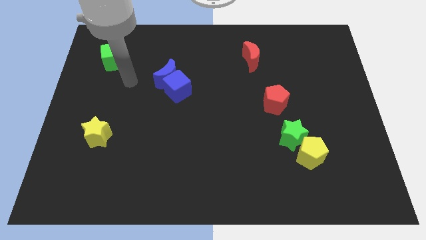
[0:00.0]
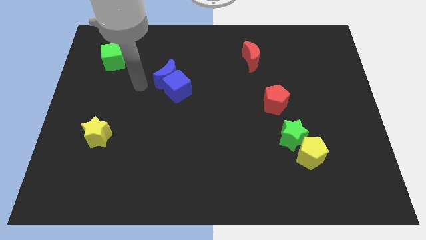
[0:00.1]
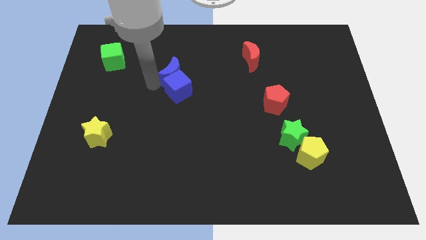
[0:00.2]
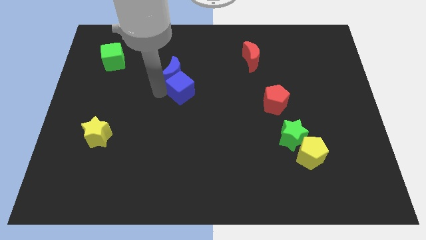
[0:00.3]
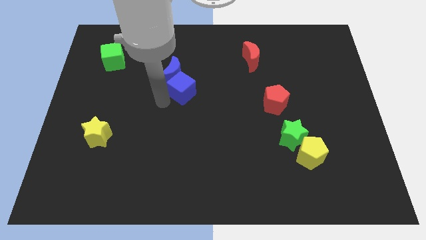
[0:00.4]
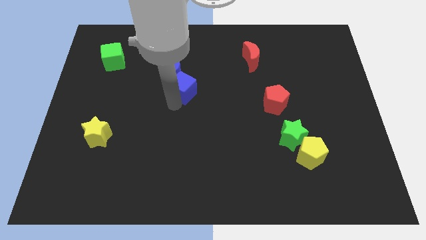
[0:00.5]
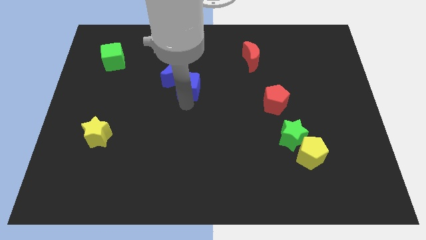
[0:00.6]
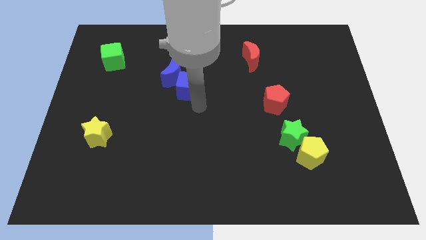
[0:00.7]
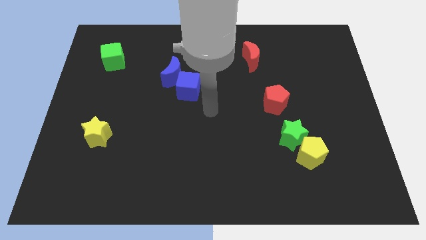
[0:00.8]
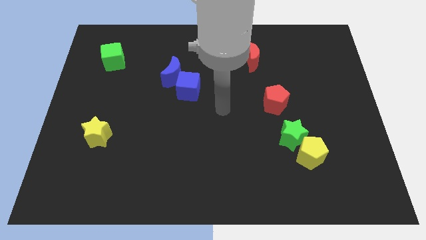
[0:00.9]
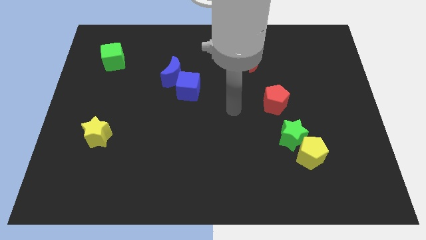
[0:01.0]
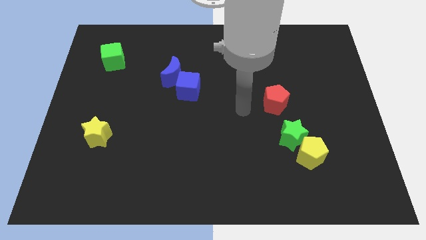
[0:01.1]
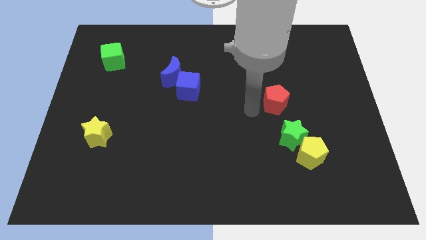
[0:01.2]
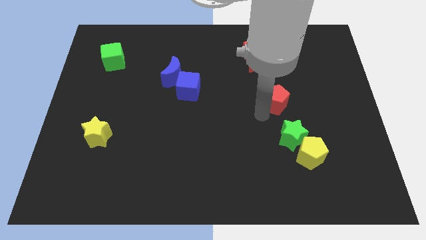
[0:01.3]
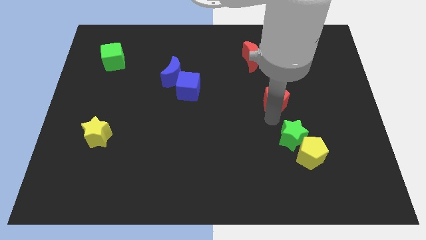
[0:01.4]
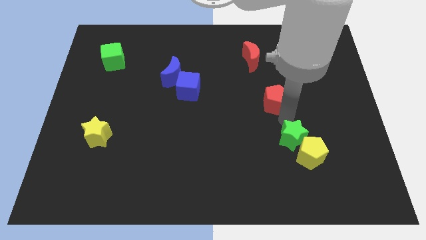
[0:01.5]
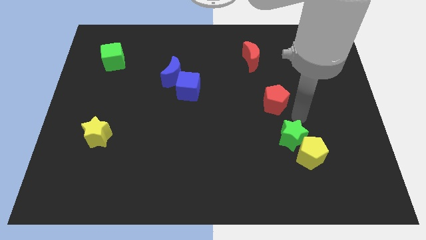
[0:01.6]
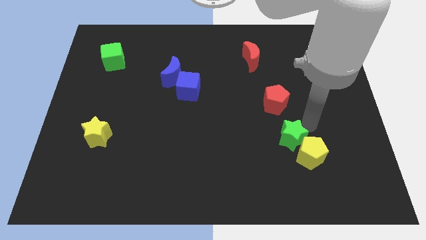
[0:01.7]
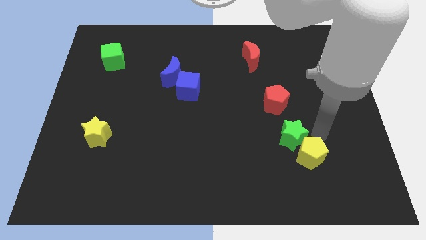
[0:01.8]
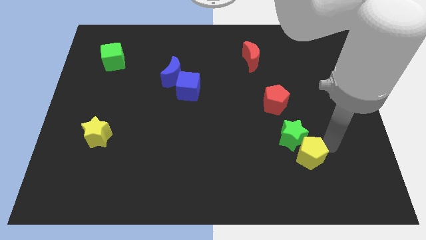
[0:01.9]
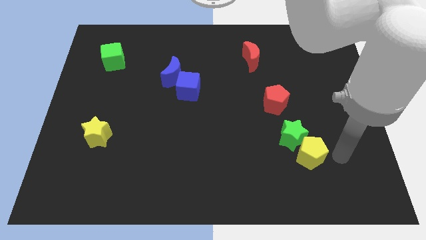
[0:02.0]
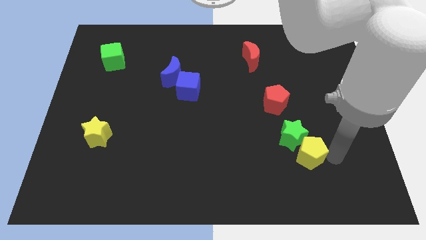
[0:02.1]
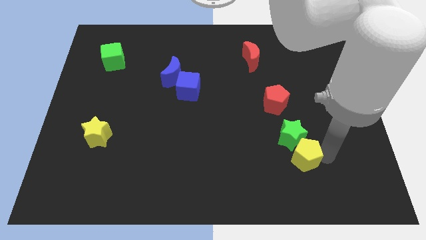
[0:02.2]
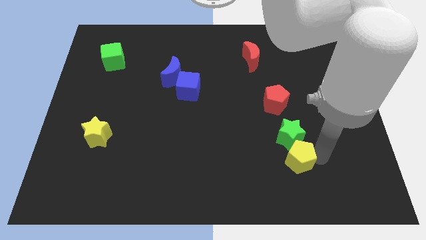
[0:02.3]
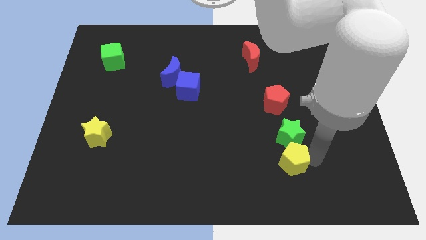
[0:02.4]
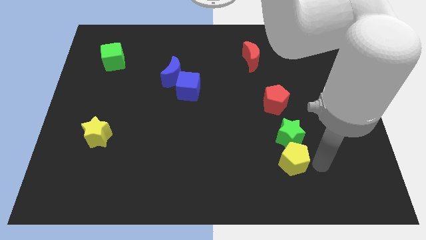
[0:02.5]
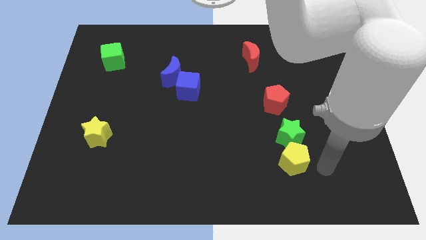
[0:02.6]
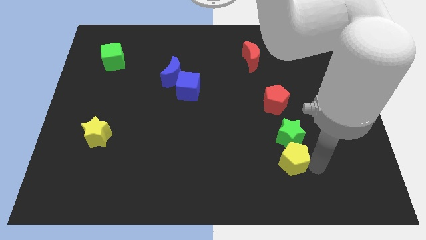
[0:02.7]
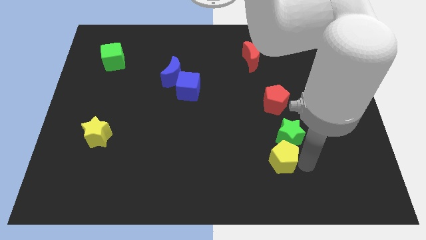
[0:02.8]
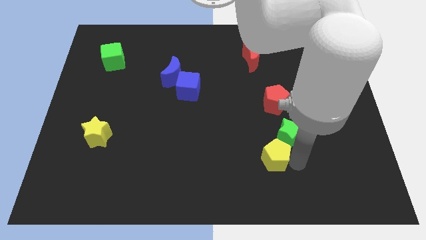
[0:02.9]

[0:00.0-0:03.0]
move the yellow pentagon to the left a little bit

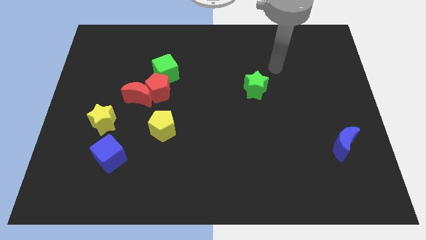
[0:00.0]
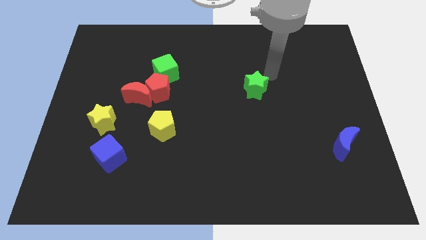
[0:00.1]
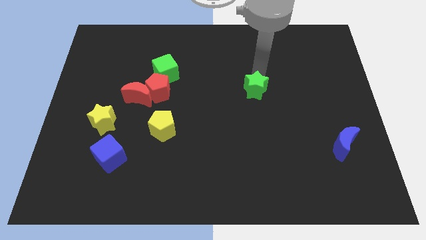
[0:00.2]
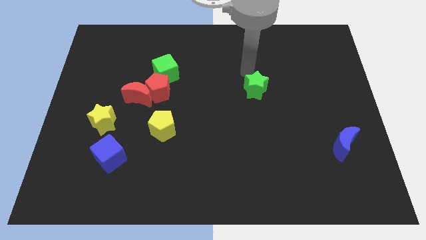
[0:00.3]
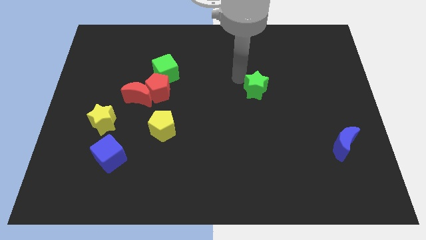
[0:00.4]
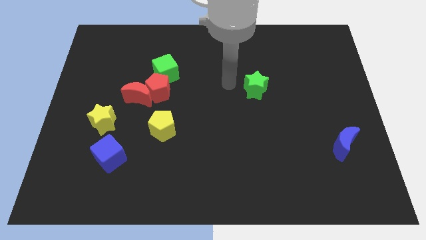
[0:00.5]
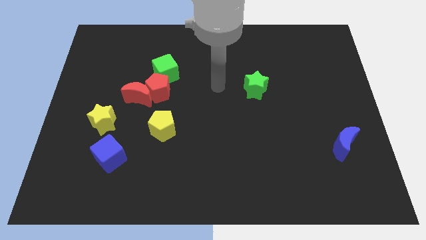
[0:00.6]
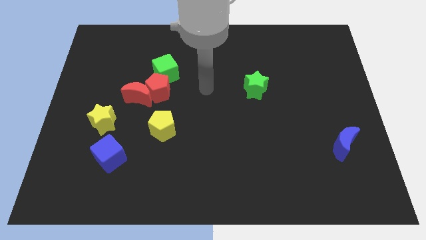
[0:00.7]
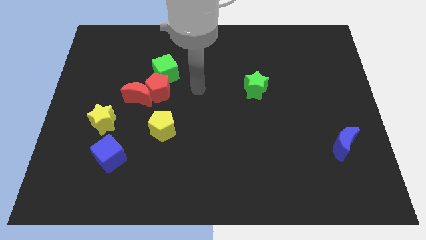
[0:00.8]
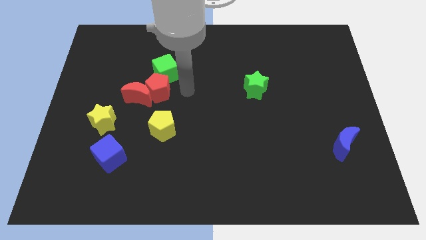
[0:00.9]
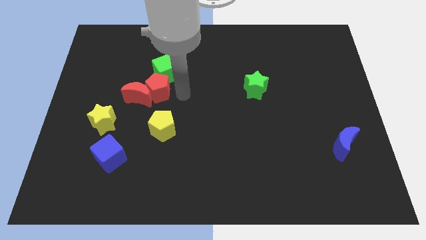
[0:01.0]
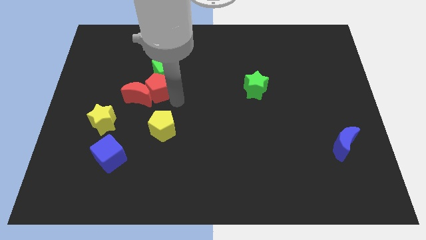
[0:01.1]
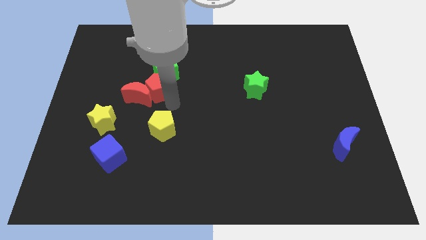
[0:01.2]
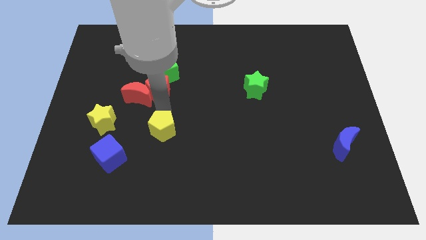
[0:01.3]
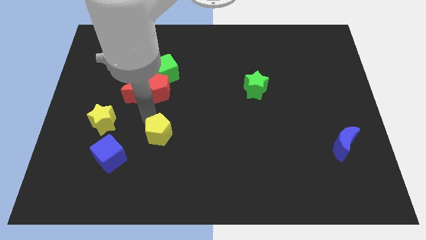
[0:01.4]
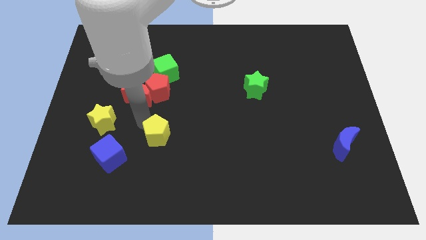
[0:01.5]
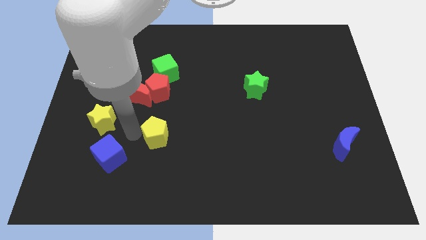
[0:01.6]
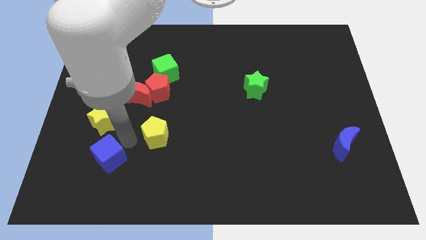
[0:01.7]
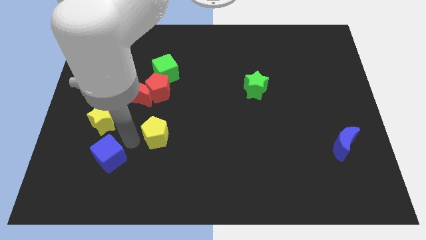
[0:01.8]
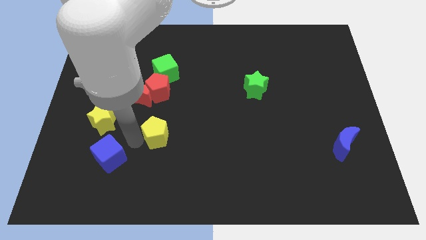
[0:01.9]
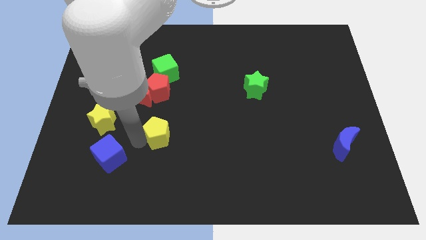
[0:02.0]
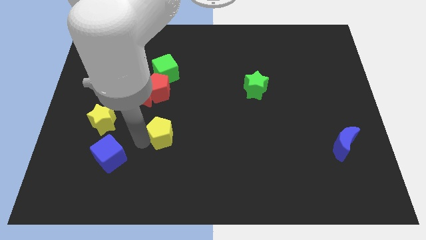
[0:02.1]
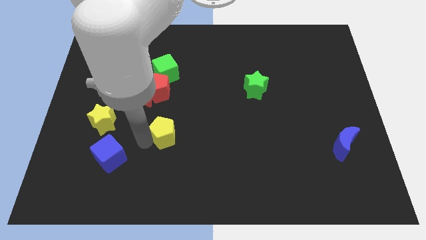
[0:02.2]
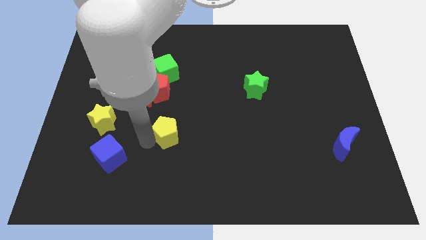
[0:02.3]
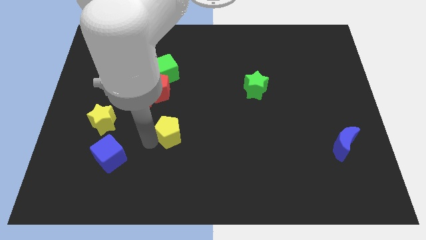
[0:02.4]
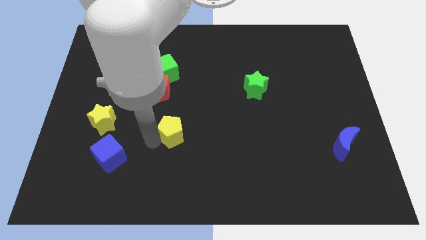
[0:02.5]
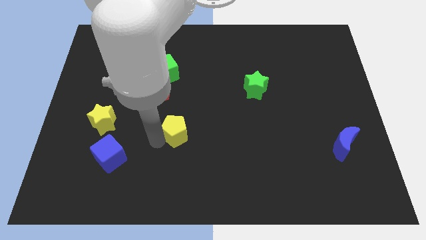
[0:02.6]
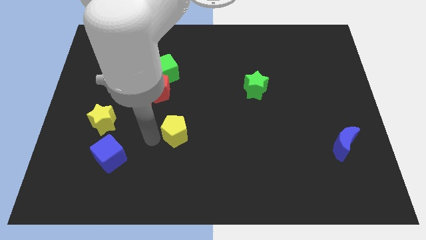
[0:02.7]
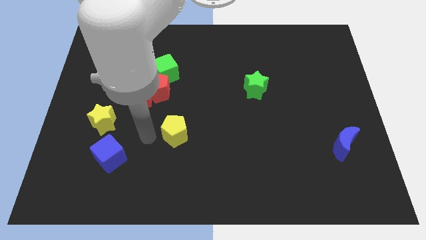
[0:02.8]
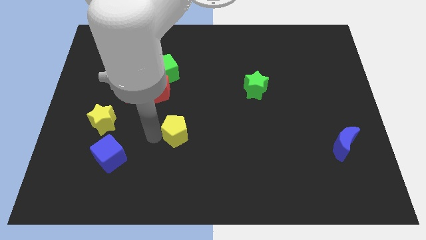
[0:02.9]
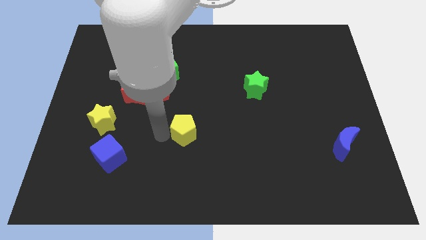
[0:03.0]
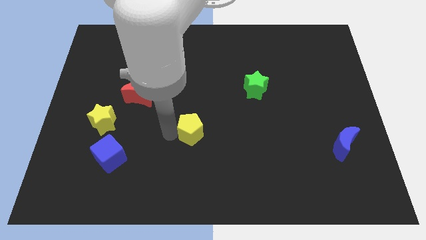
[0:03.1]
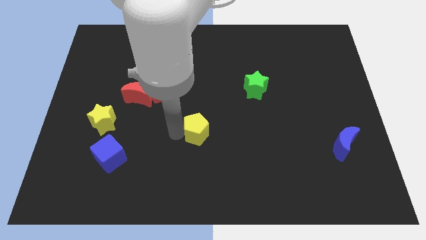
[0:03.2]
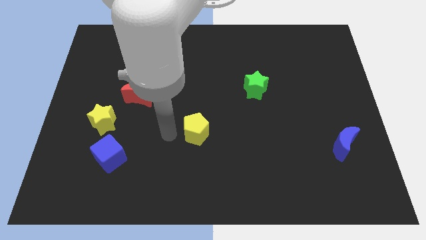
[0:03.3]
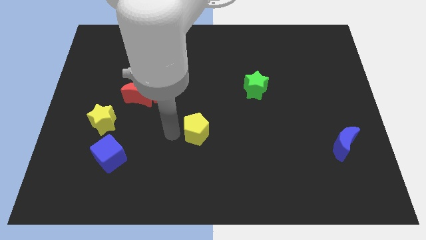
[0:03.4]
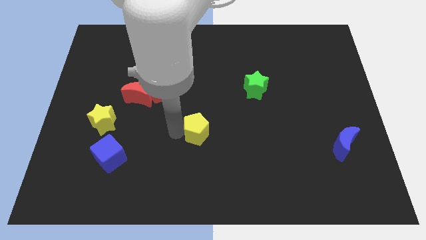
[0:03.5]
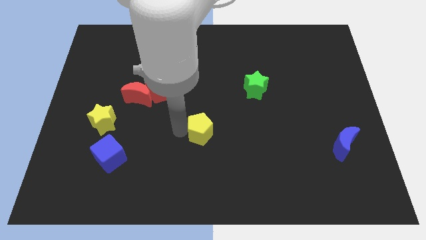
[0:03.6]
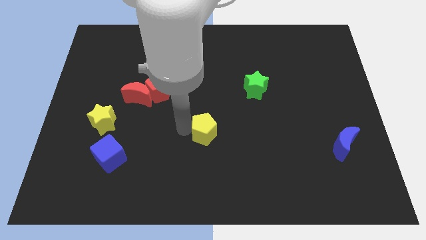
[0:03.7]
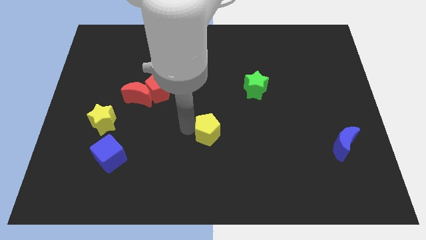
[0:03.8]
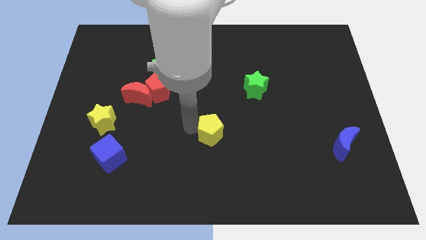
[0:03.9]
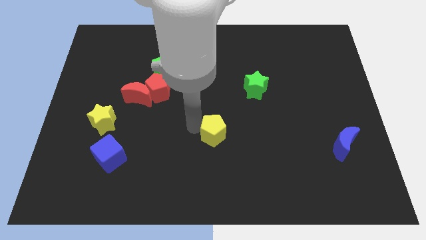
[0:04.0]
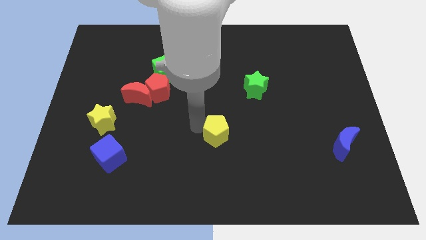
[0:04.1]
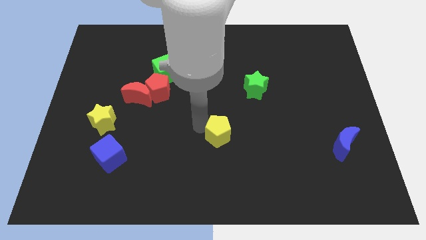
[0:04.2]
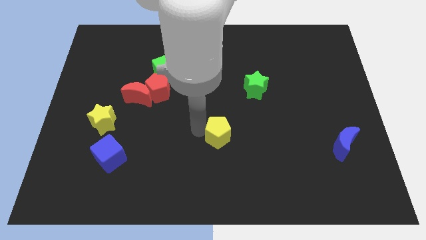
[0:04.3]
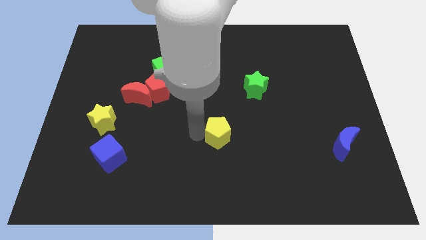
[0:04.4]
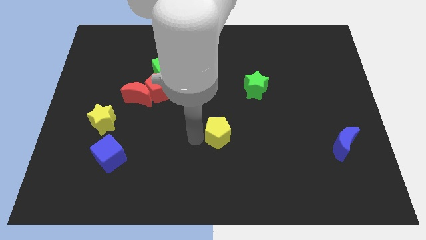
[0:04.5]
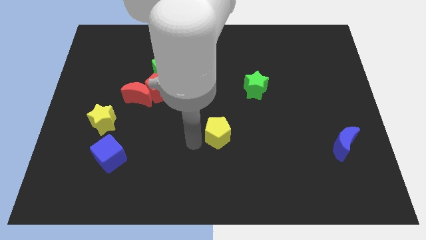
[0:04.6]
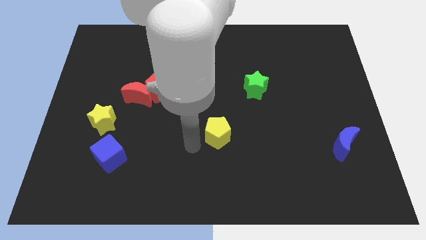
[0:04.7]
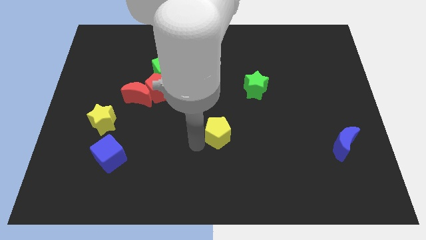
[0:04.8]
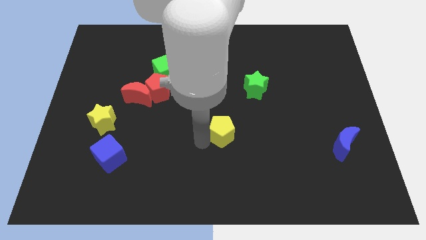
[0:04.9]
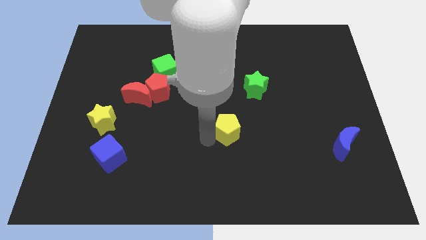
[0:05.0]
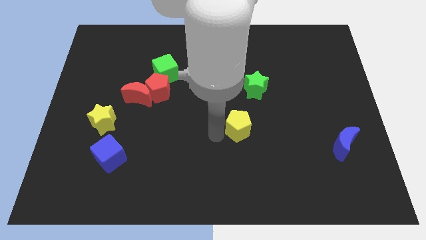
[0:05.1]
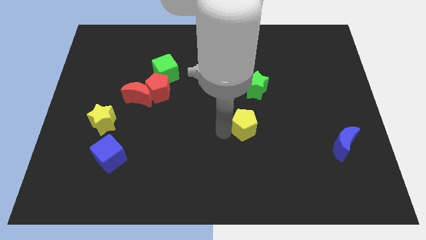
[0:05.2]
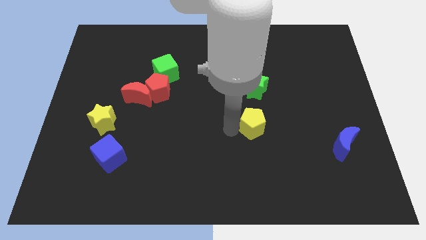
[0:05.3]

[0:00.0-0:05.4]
push the yellow pentagon right
